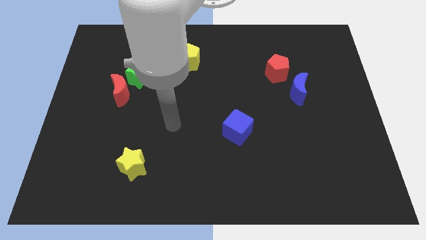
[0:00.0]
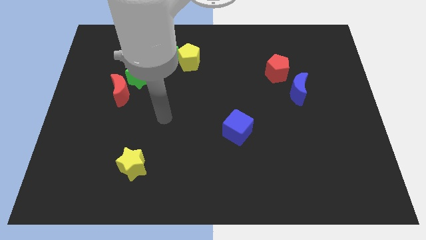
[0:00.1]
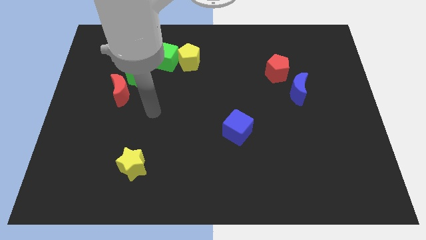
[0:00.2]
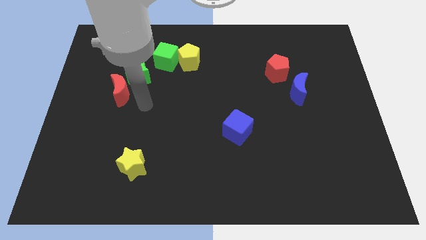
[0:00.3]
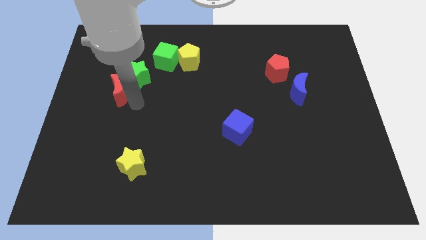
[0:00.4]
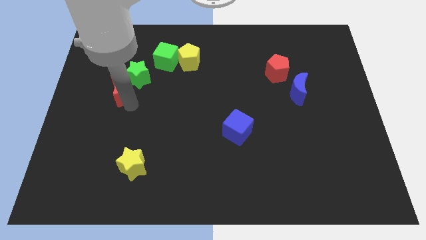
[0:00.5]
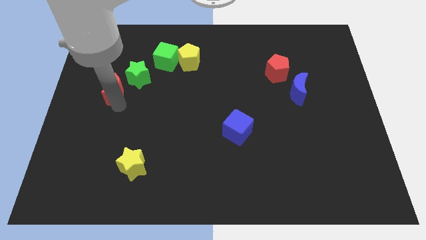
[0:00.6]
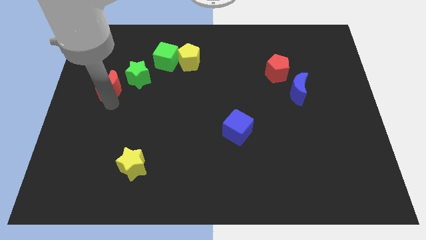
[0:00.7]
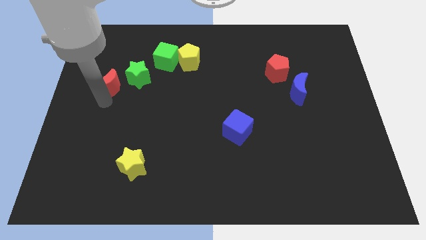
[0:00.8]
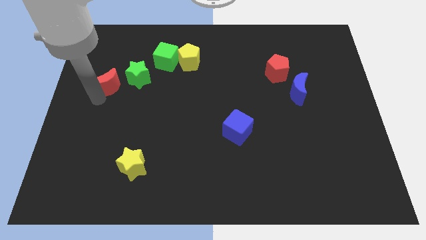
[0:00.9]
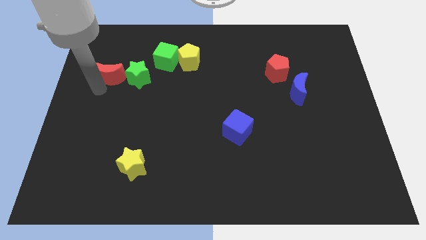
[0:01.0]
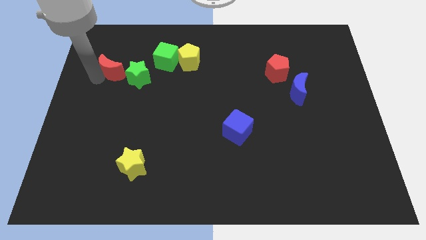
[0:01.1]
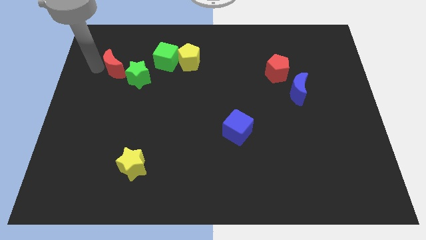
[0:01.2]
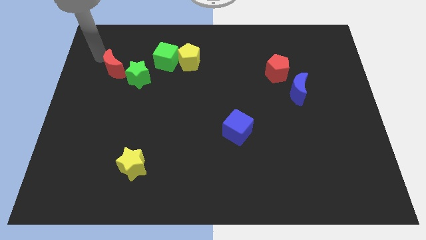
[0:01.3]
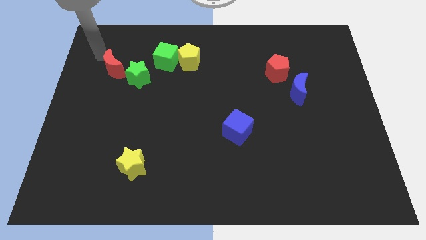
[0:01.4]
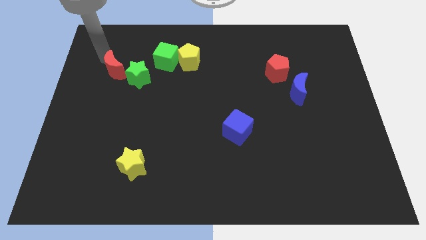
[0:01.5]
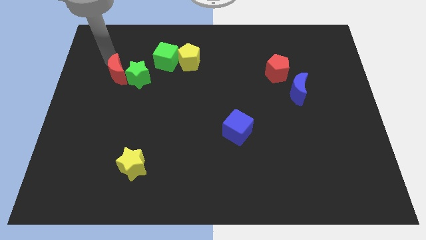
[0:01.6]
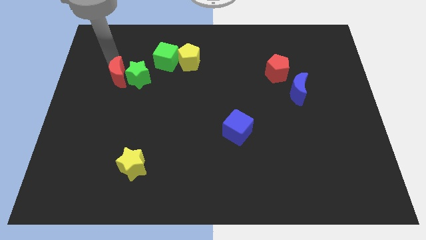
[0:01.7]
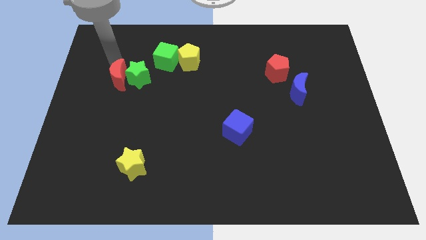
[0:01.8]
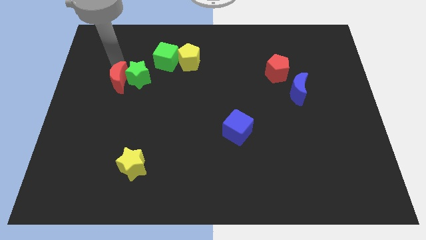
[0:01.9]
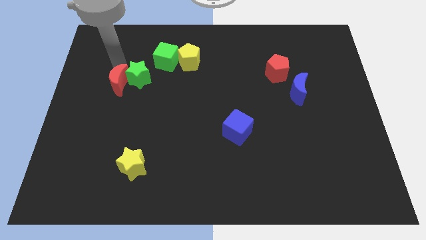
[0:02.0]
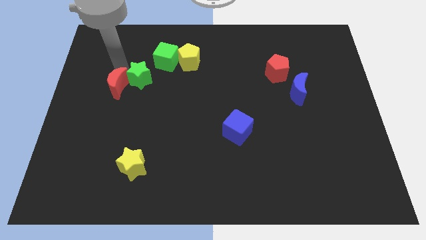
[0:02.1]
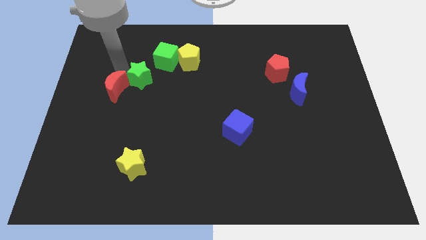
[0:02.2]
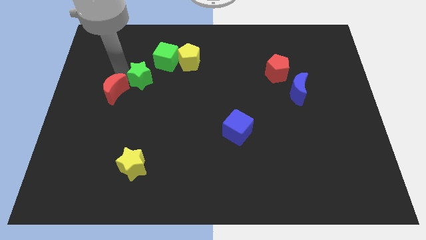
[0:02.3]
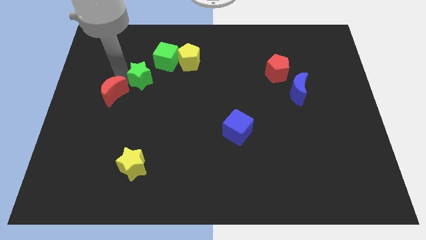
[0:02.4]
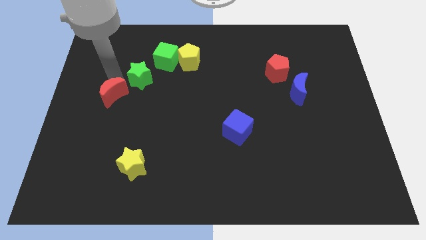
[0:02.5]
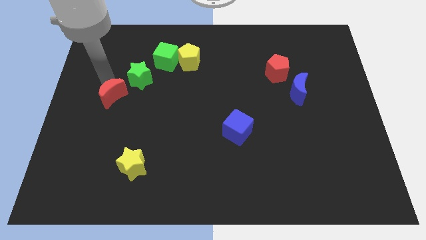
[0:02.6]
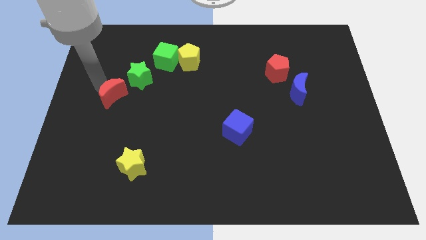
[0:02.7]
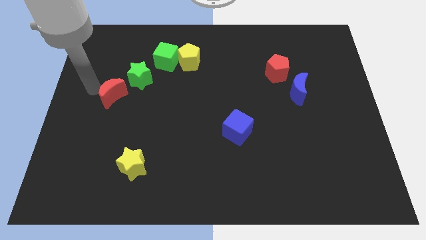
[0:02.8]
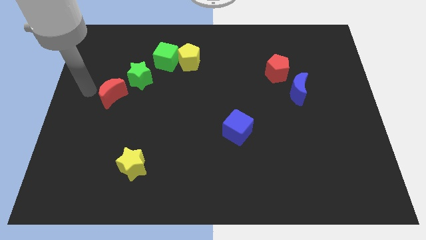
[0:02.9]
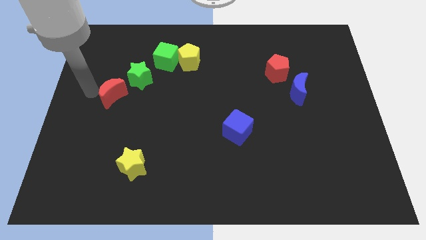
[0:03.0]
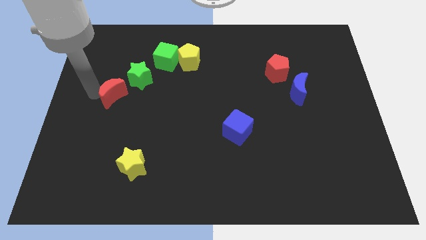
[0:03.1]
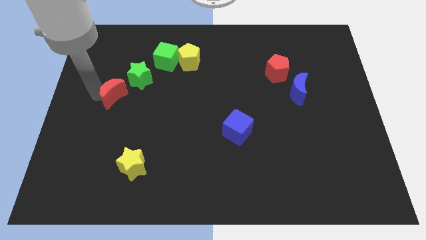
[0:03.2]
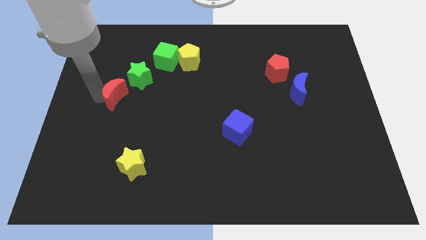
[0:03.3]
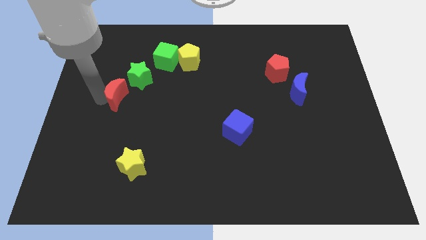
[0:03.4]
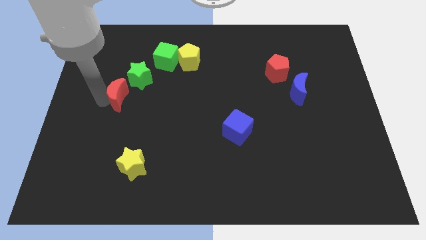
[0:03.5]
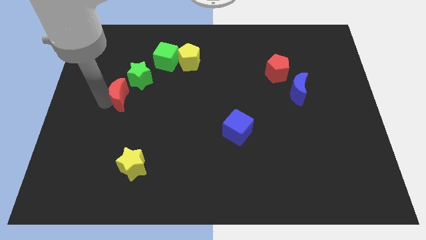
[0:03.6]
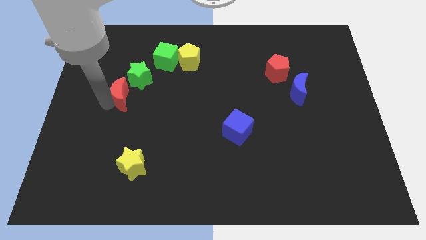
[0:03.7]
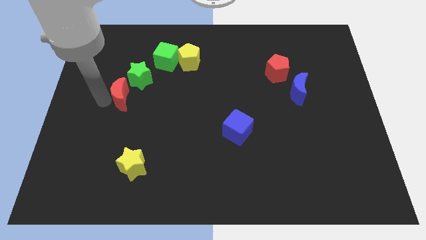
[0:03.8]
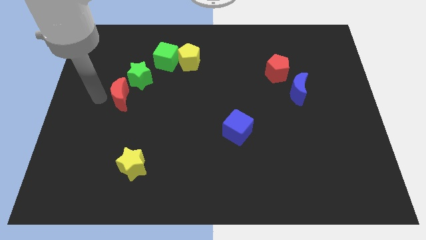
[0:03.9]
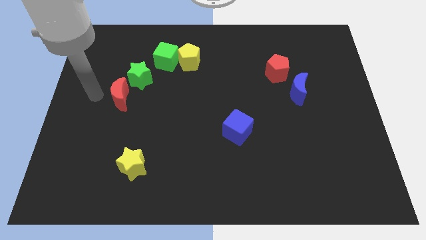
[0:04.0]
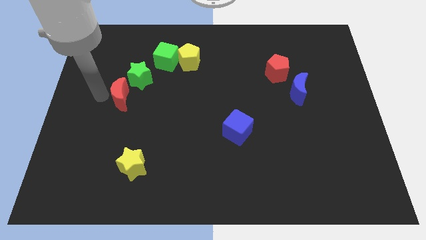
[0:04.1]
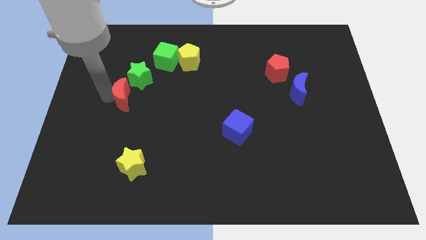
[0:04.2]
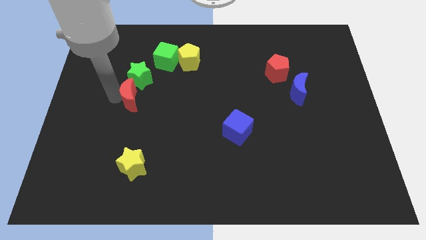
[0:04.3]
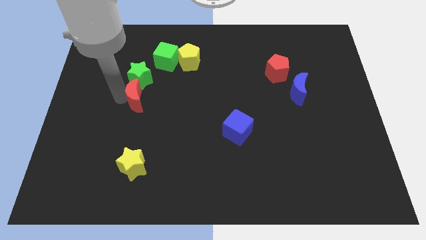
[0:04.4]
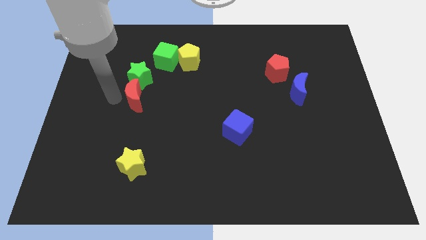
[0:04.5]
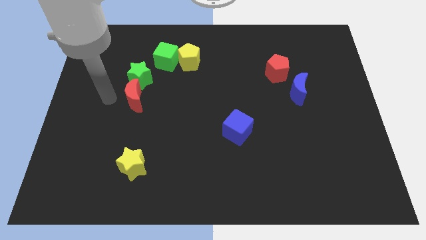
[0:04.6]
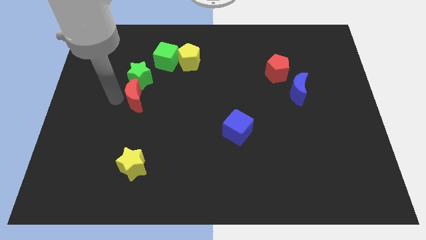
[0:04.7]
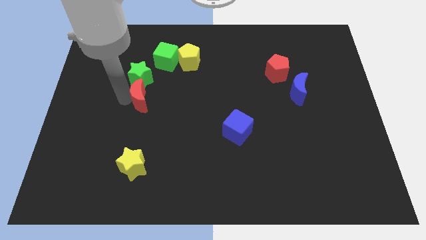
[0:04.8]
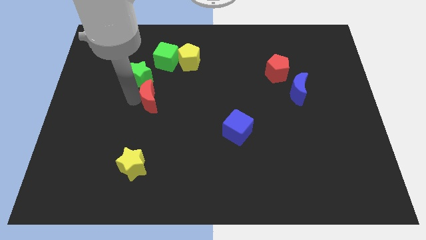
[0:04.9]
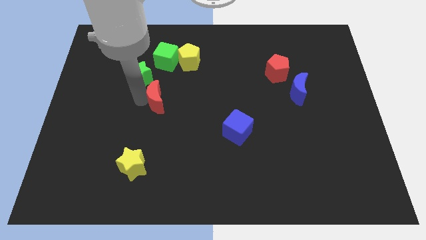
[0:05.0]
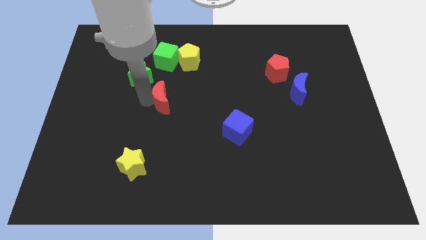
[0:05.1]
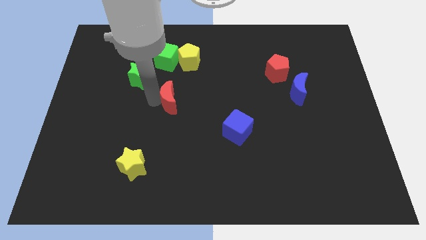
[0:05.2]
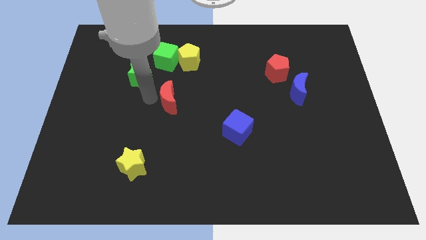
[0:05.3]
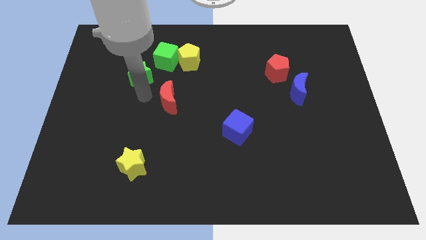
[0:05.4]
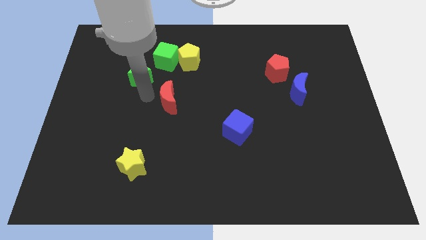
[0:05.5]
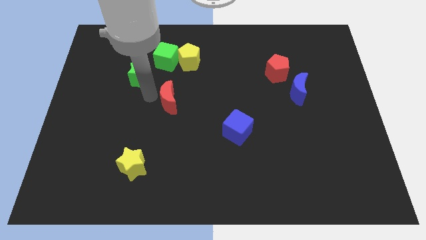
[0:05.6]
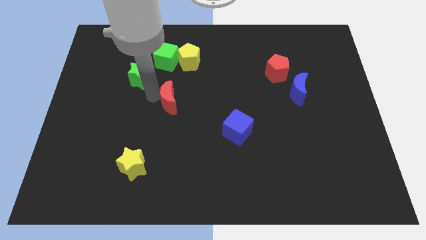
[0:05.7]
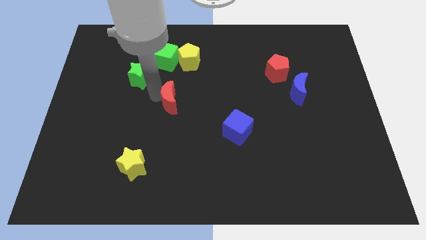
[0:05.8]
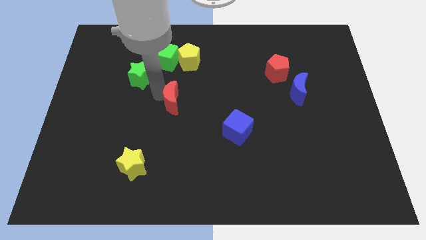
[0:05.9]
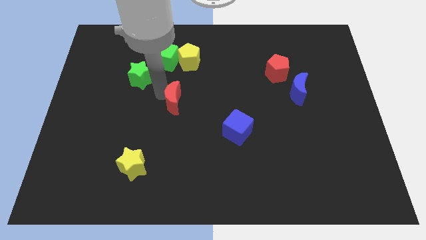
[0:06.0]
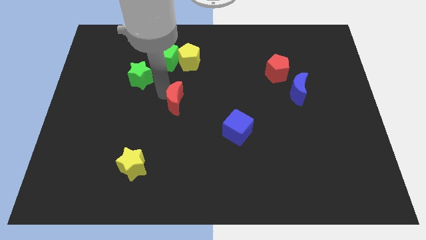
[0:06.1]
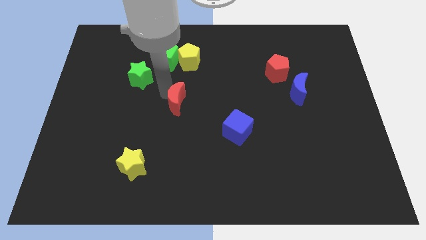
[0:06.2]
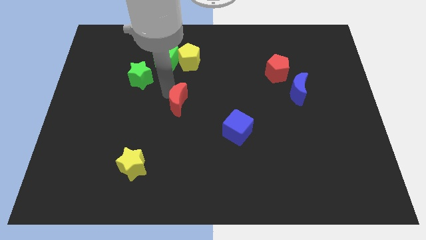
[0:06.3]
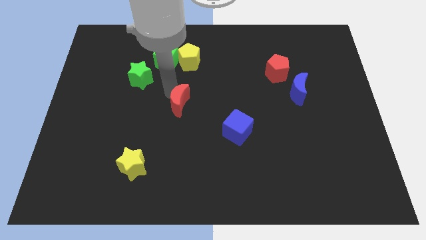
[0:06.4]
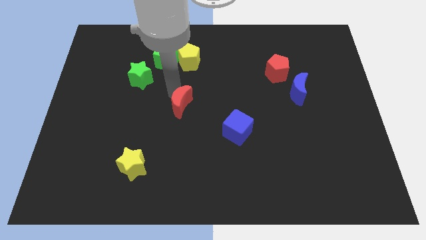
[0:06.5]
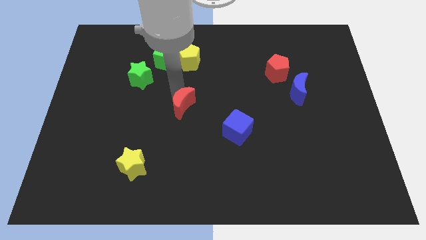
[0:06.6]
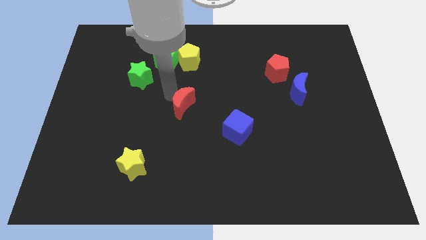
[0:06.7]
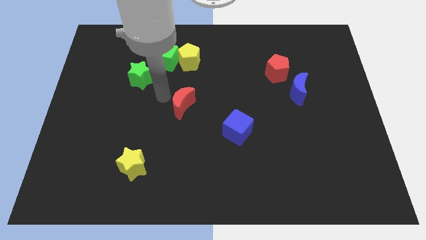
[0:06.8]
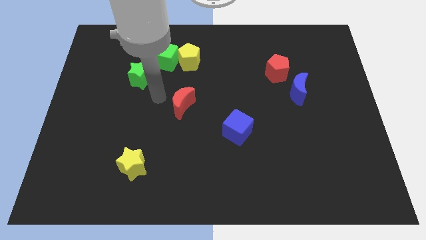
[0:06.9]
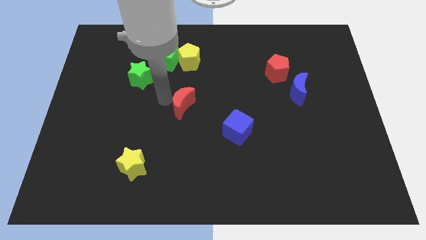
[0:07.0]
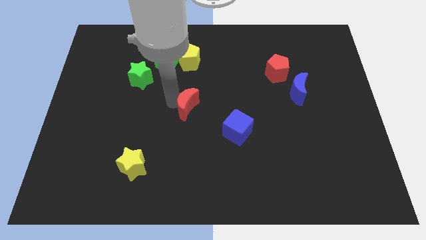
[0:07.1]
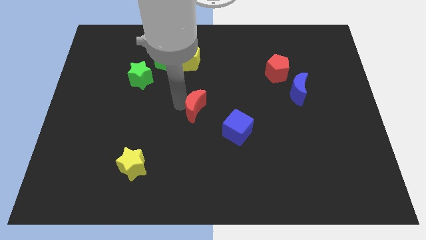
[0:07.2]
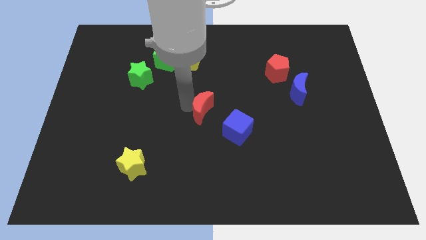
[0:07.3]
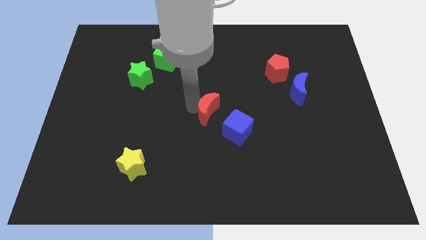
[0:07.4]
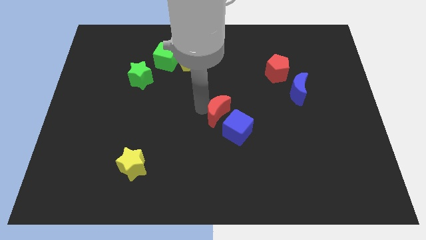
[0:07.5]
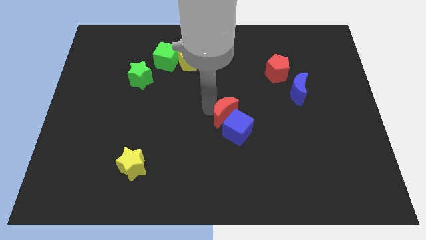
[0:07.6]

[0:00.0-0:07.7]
move the red moon to the blue cube
